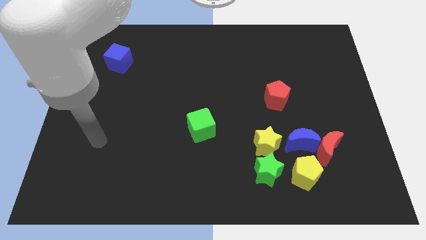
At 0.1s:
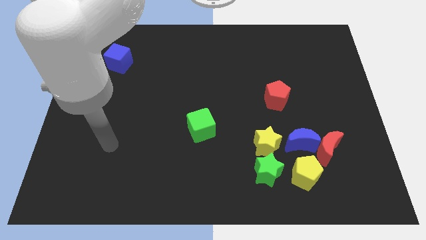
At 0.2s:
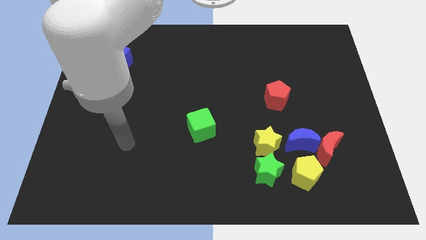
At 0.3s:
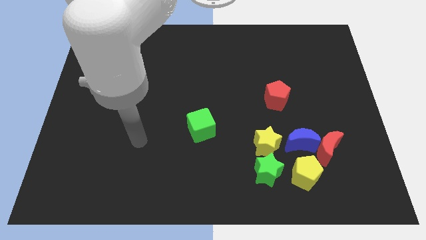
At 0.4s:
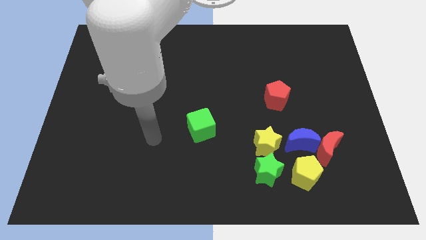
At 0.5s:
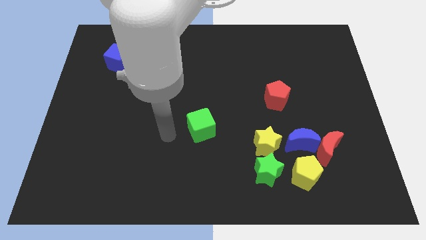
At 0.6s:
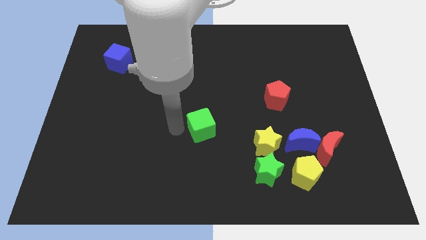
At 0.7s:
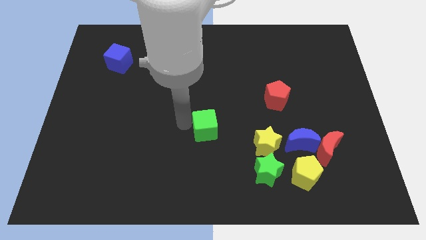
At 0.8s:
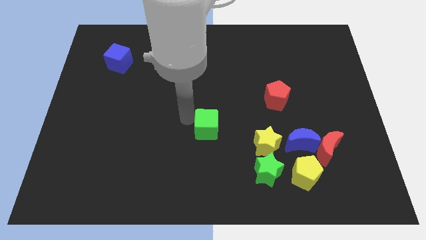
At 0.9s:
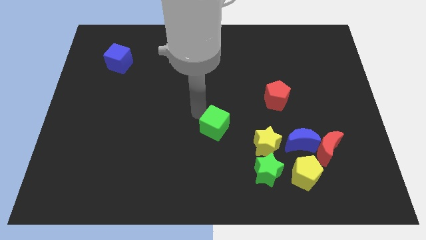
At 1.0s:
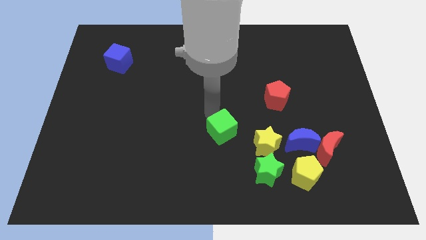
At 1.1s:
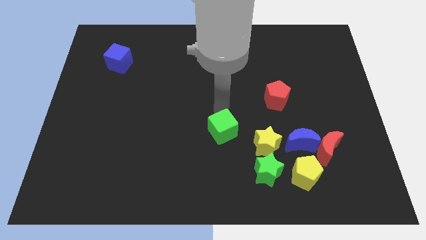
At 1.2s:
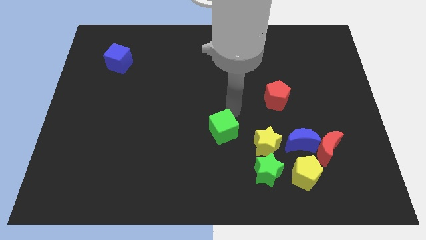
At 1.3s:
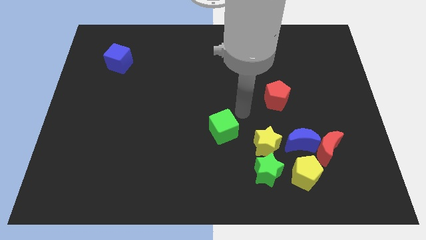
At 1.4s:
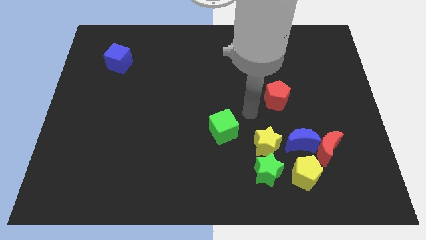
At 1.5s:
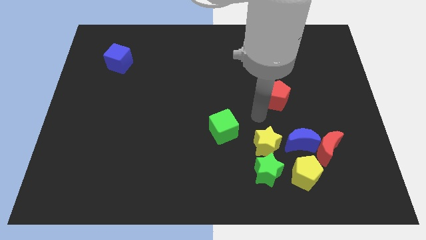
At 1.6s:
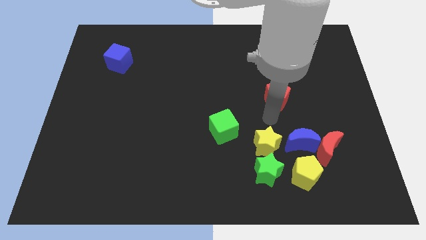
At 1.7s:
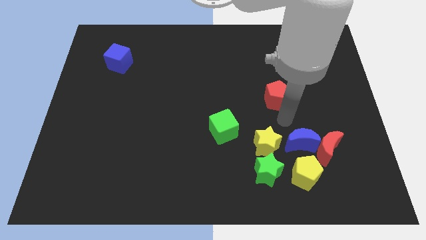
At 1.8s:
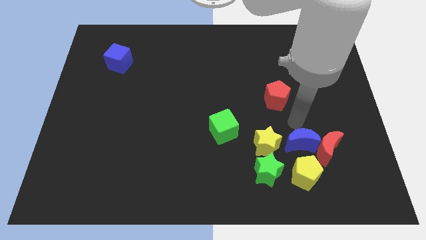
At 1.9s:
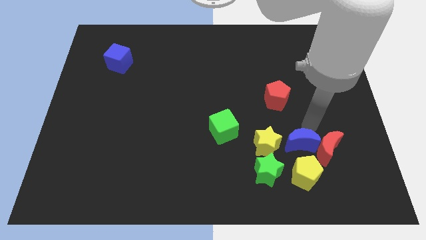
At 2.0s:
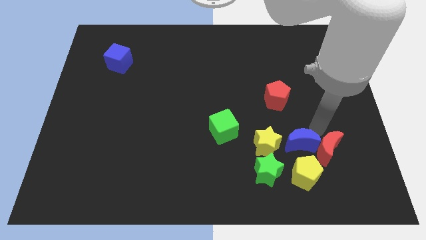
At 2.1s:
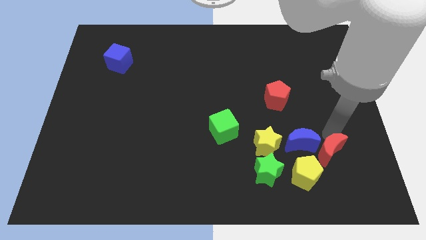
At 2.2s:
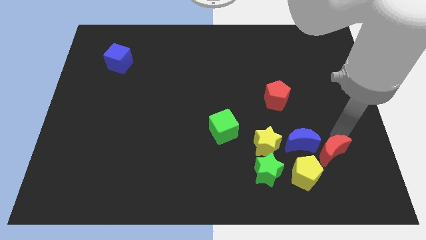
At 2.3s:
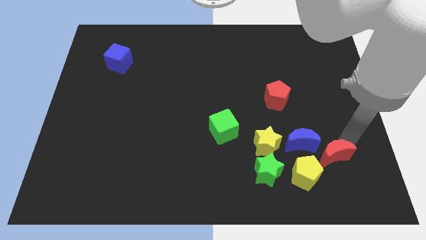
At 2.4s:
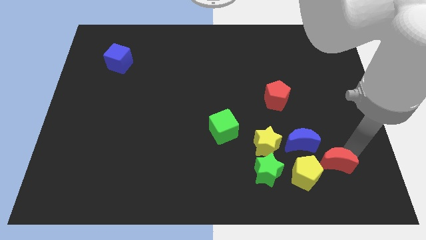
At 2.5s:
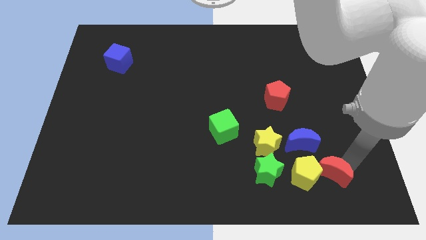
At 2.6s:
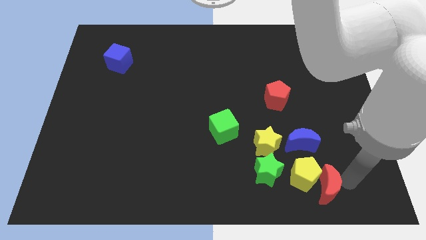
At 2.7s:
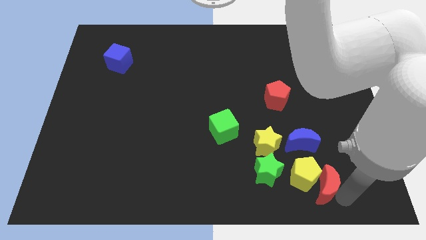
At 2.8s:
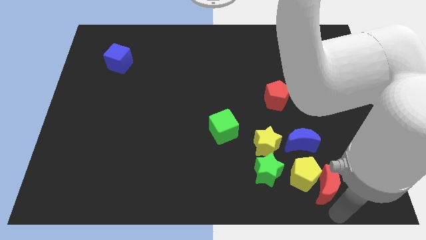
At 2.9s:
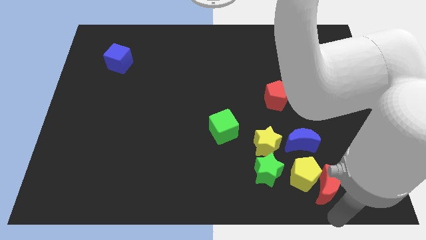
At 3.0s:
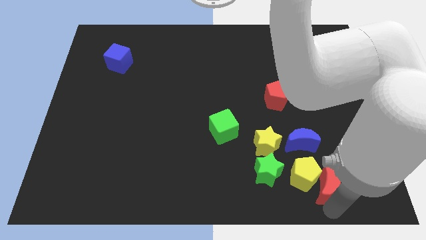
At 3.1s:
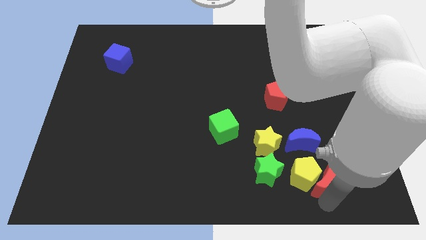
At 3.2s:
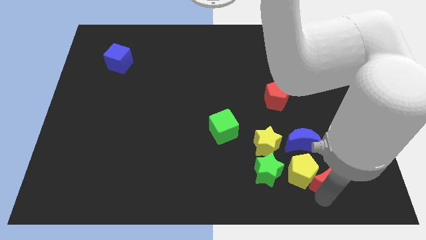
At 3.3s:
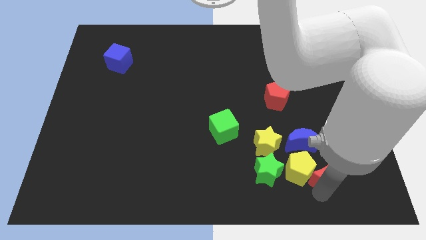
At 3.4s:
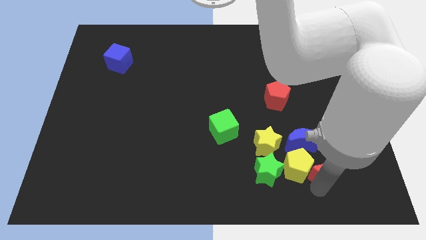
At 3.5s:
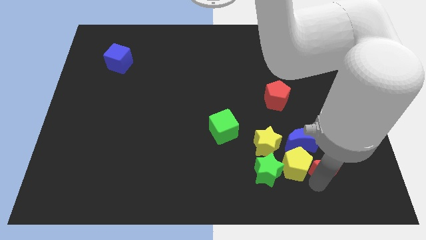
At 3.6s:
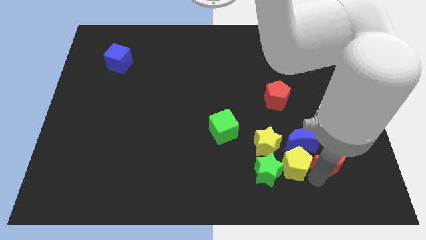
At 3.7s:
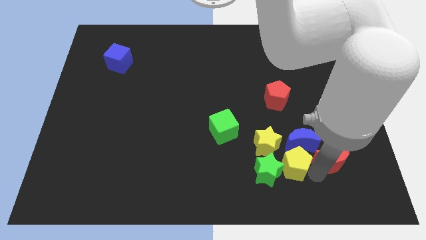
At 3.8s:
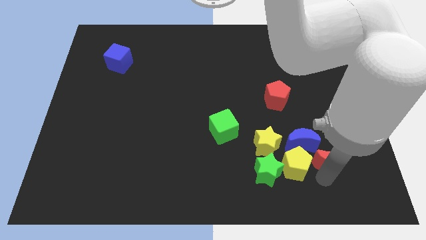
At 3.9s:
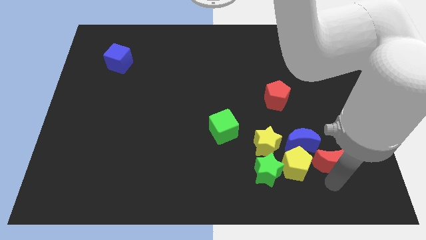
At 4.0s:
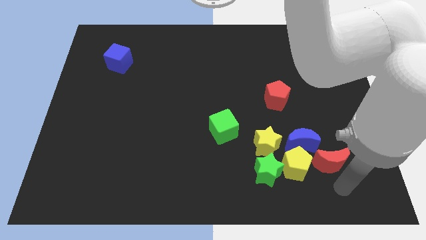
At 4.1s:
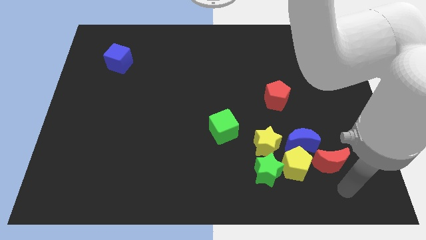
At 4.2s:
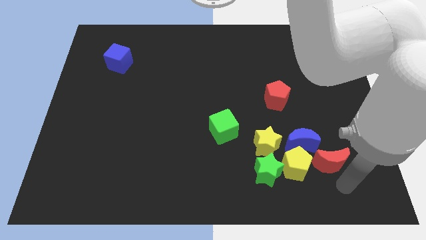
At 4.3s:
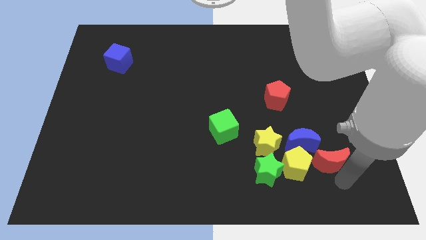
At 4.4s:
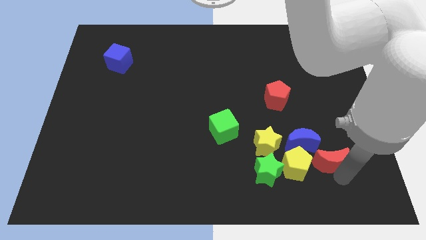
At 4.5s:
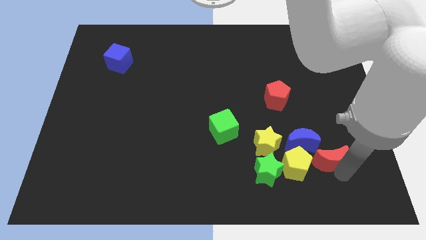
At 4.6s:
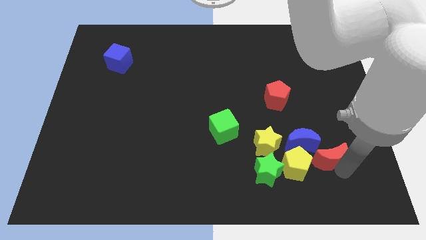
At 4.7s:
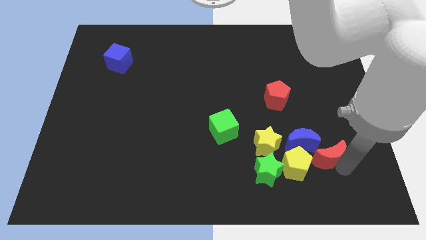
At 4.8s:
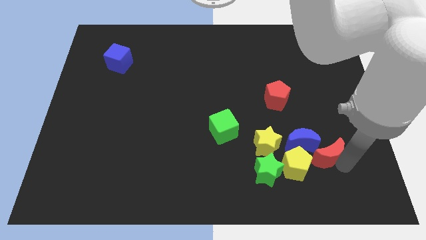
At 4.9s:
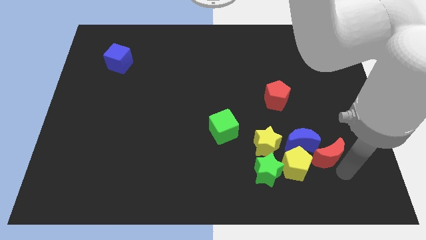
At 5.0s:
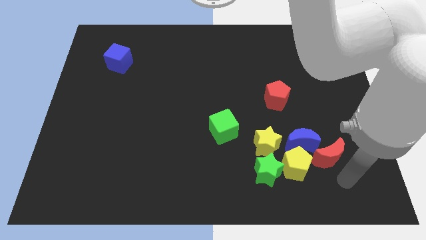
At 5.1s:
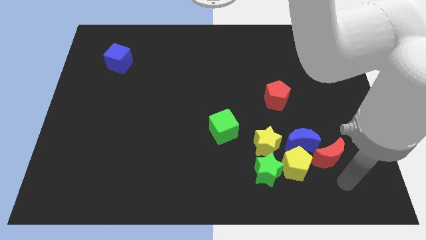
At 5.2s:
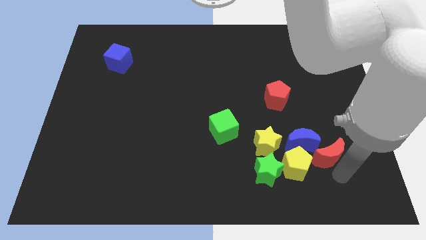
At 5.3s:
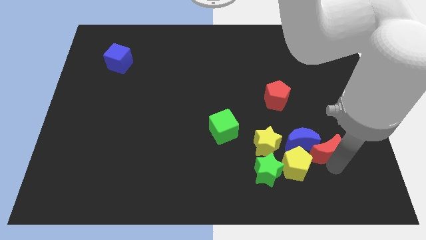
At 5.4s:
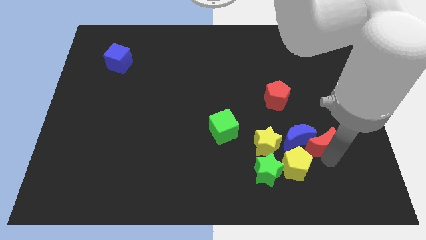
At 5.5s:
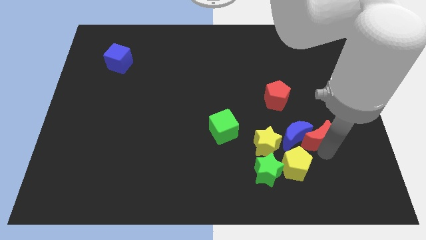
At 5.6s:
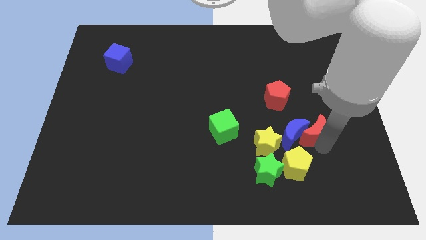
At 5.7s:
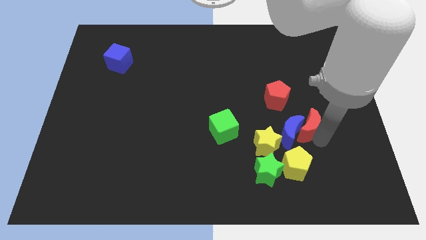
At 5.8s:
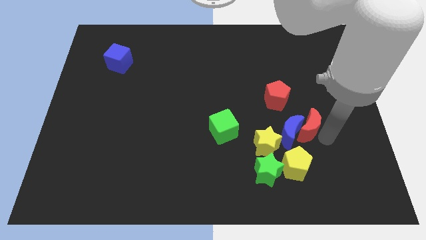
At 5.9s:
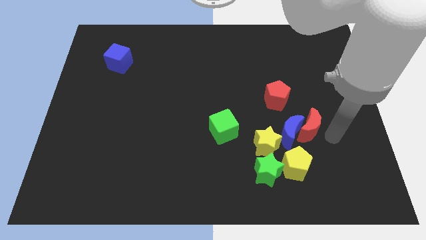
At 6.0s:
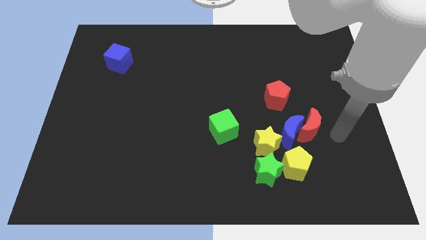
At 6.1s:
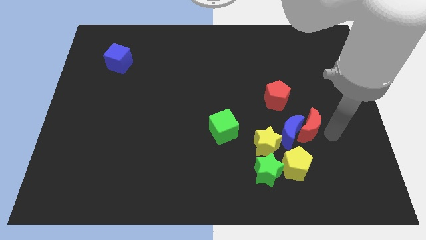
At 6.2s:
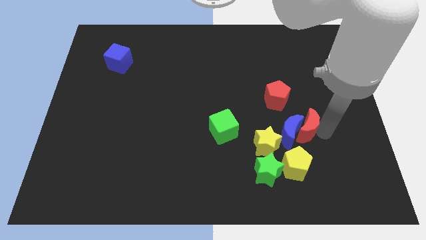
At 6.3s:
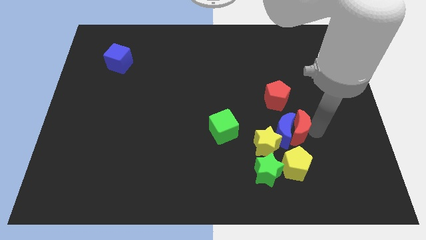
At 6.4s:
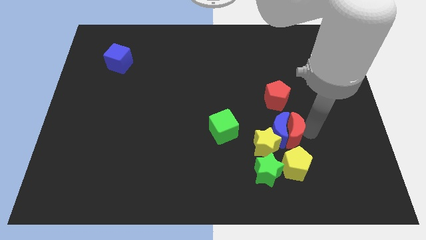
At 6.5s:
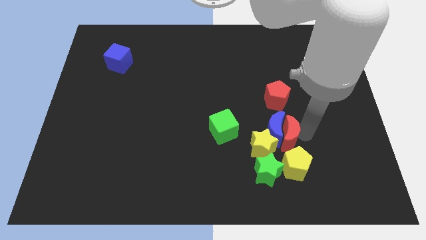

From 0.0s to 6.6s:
slightly slide the red moon left

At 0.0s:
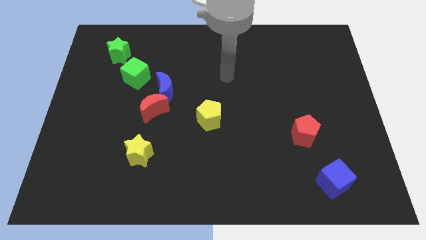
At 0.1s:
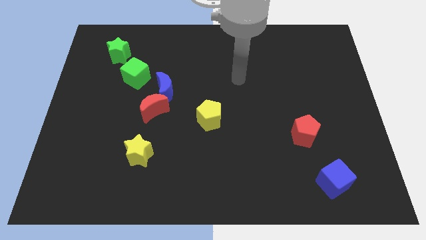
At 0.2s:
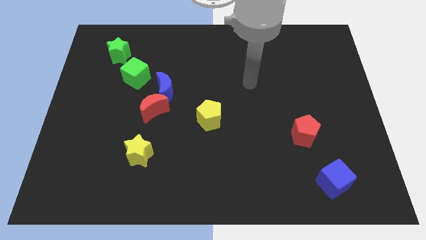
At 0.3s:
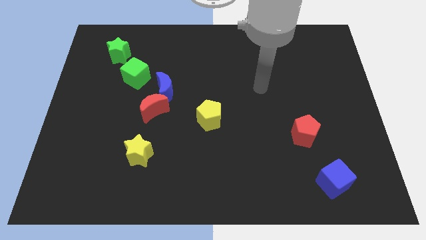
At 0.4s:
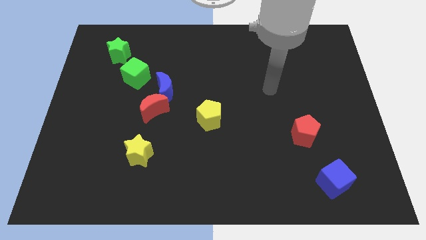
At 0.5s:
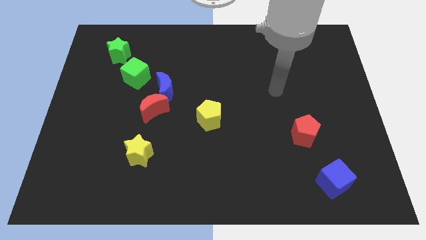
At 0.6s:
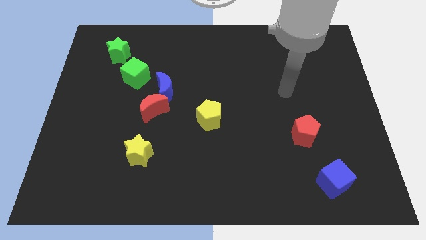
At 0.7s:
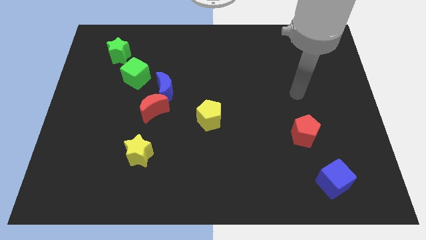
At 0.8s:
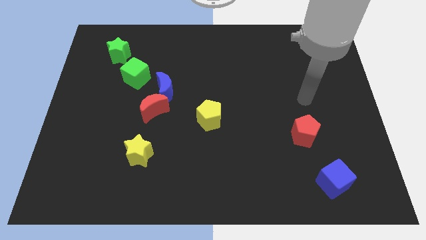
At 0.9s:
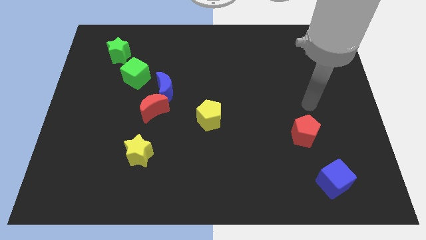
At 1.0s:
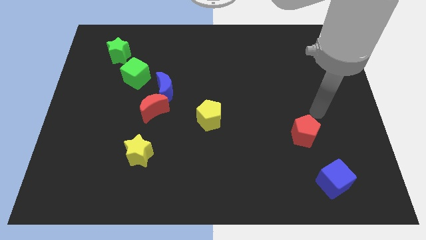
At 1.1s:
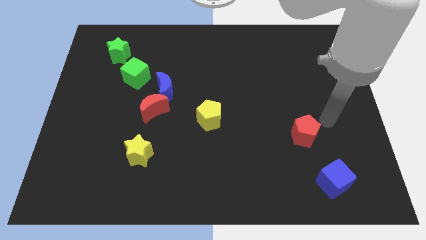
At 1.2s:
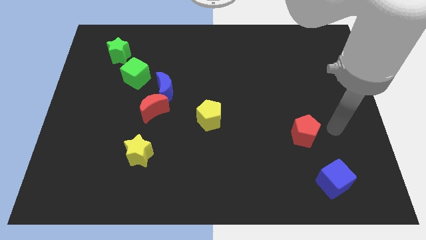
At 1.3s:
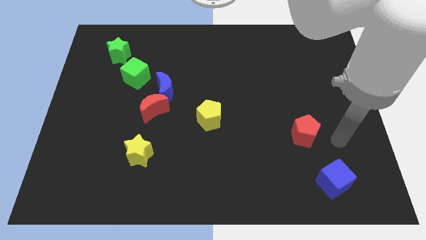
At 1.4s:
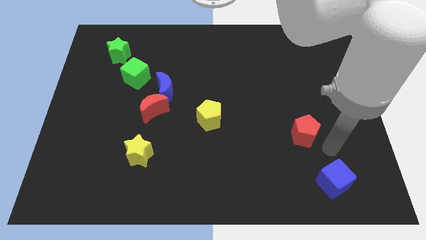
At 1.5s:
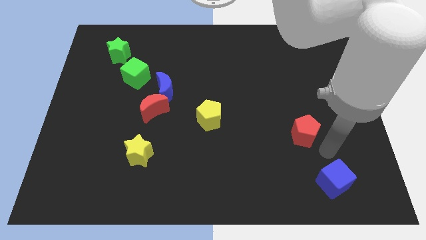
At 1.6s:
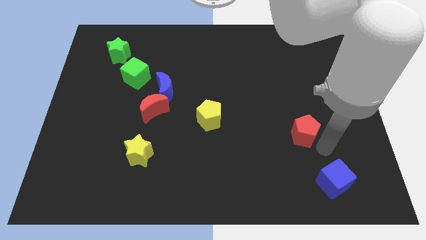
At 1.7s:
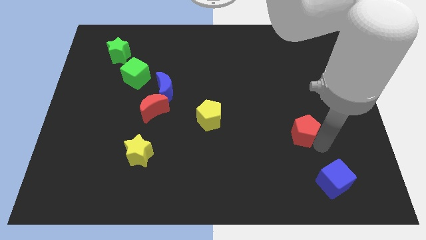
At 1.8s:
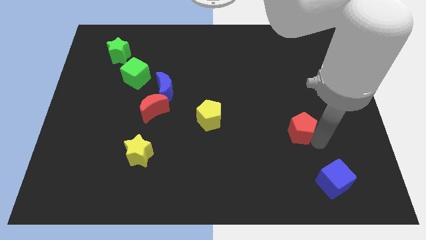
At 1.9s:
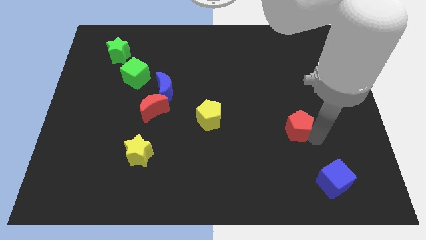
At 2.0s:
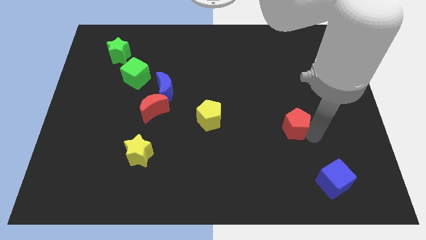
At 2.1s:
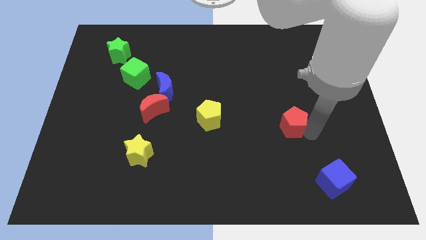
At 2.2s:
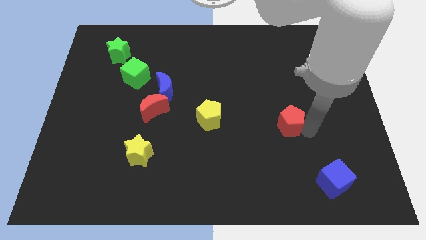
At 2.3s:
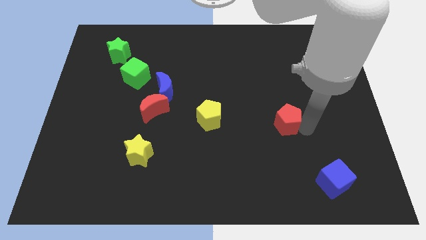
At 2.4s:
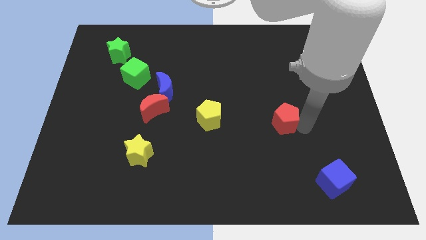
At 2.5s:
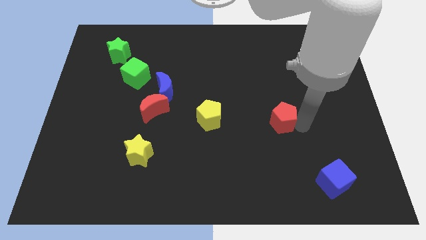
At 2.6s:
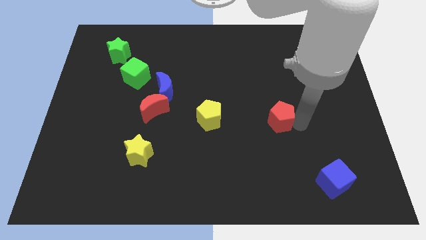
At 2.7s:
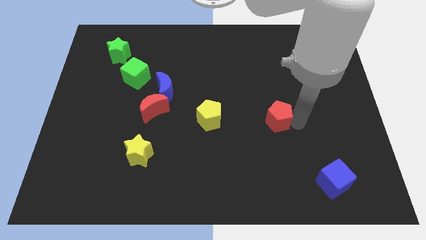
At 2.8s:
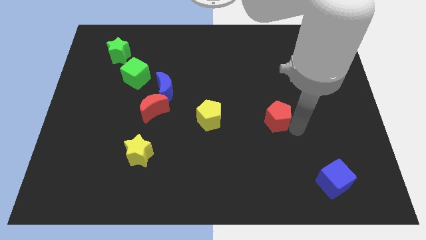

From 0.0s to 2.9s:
slide the red pentagon a little bit upwards and then left
